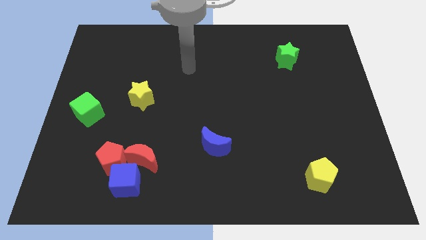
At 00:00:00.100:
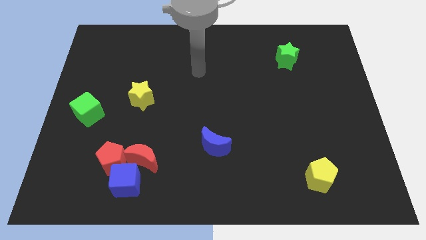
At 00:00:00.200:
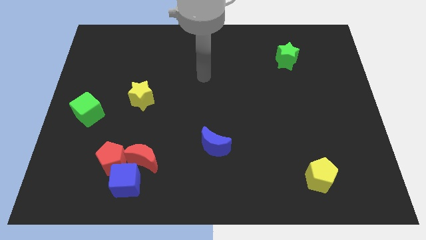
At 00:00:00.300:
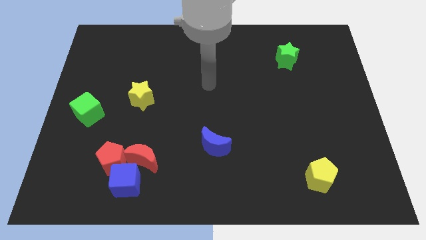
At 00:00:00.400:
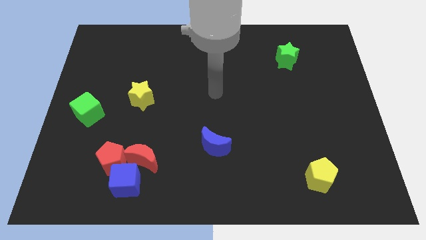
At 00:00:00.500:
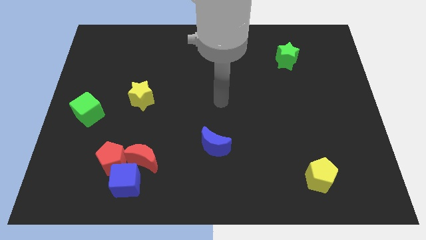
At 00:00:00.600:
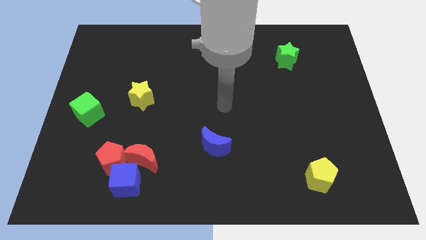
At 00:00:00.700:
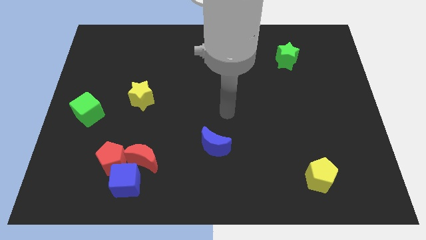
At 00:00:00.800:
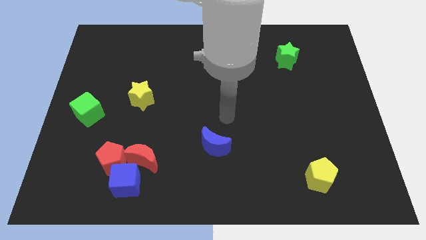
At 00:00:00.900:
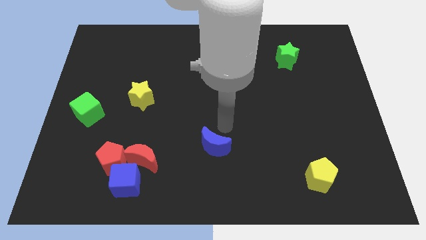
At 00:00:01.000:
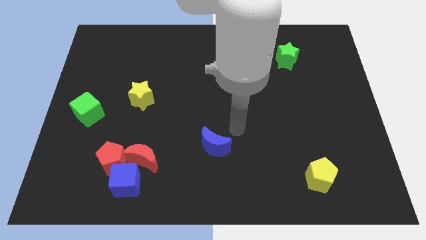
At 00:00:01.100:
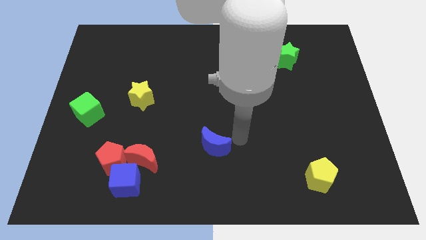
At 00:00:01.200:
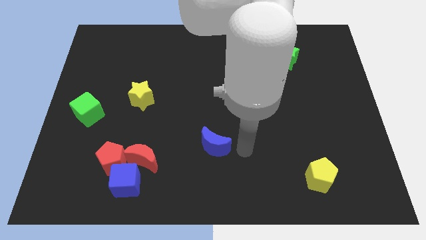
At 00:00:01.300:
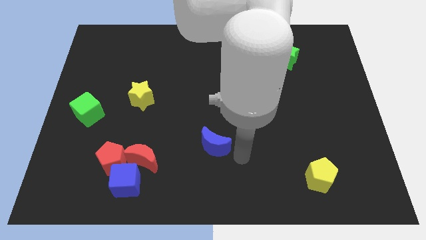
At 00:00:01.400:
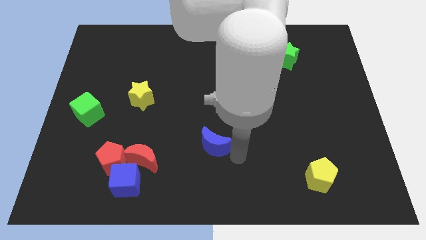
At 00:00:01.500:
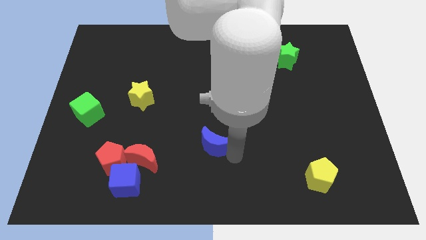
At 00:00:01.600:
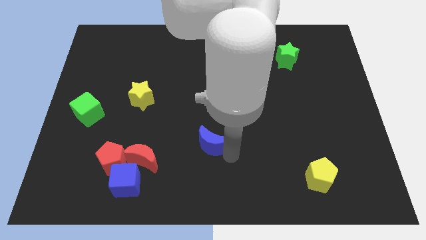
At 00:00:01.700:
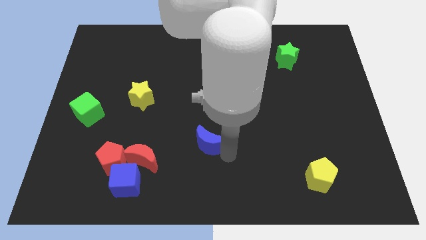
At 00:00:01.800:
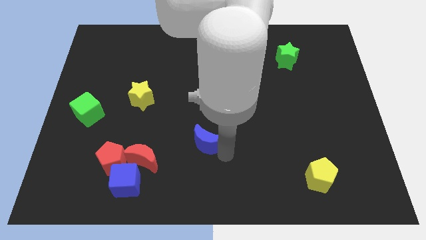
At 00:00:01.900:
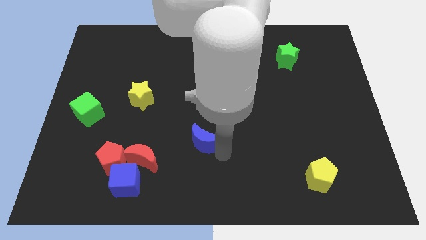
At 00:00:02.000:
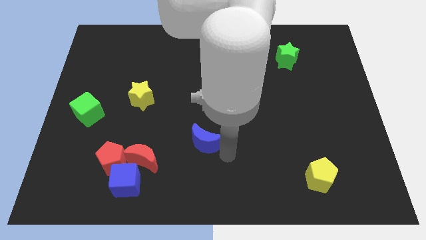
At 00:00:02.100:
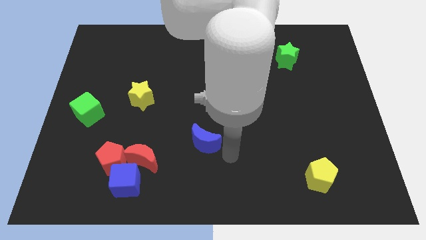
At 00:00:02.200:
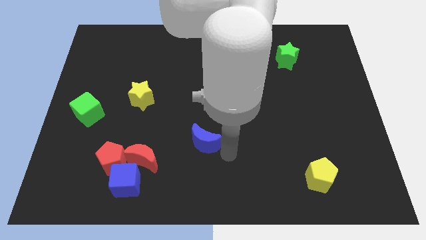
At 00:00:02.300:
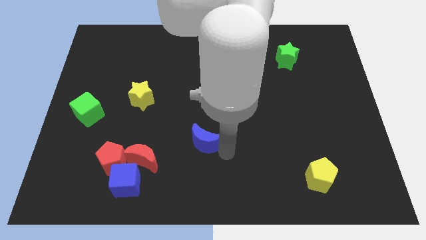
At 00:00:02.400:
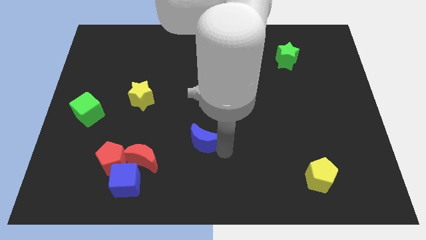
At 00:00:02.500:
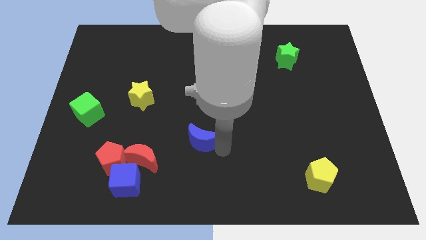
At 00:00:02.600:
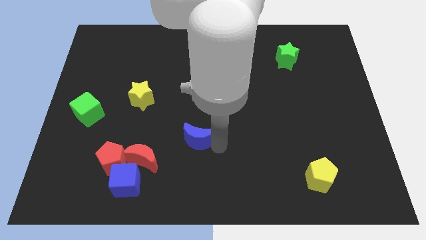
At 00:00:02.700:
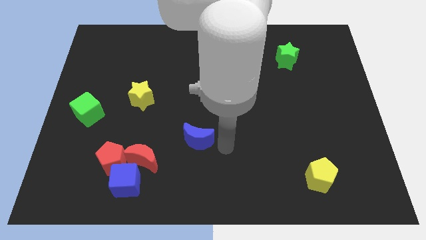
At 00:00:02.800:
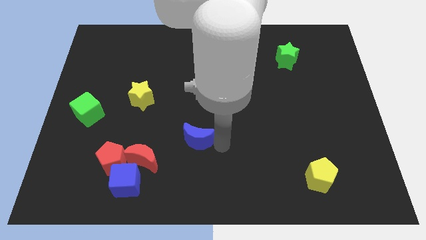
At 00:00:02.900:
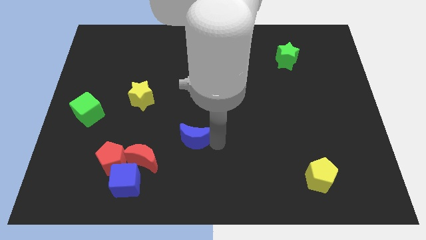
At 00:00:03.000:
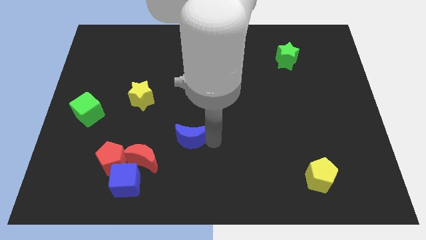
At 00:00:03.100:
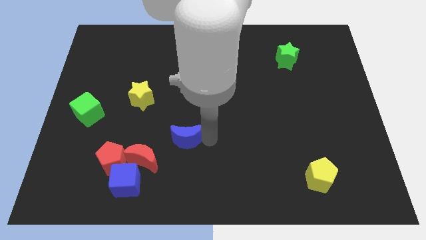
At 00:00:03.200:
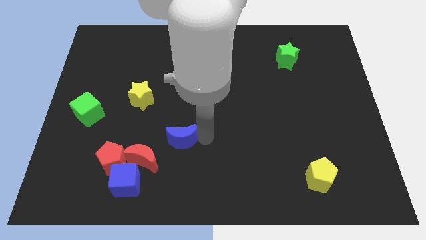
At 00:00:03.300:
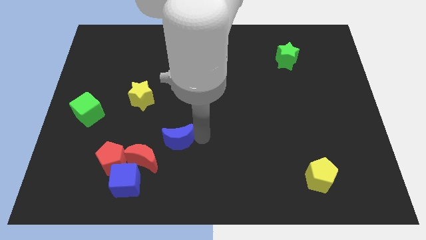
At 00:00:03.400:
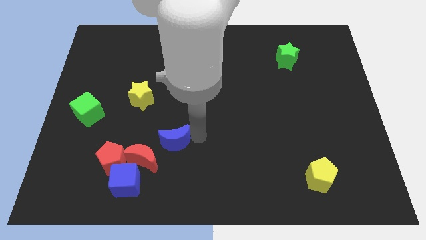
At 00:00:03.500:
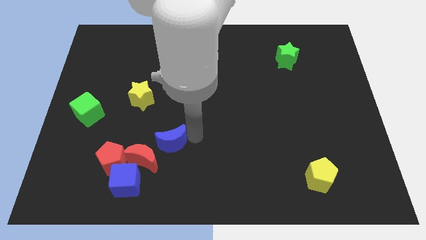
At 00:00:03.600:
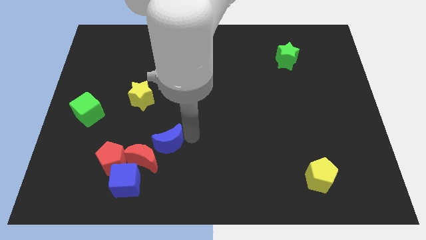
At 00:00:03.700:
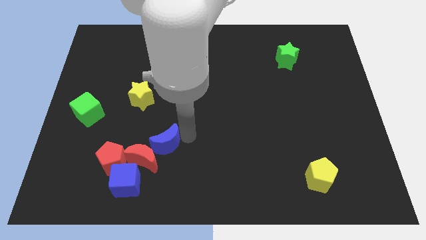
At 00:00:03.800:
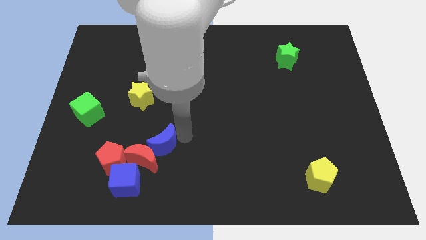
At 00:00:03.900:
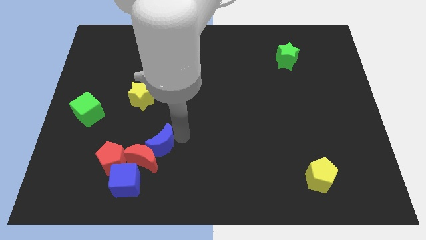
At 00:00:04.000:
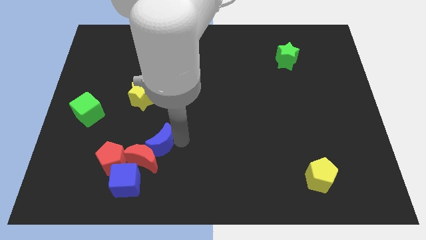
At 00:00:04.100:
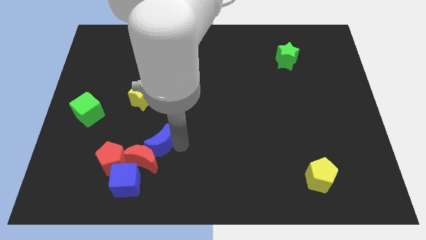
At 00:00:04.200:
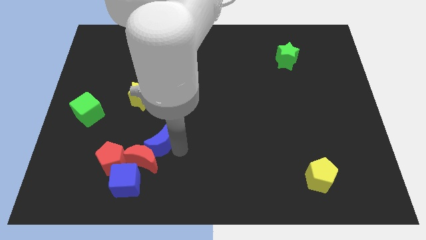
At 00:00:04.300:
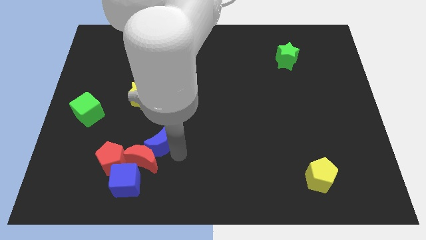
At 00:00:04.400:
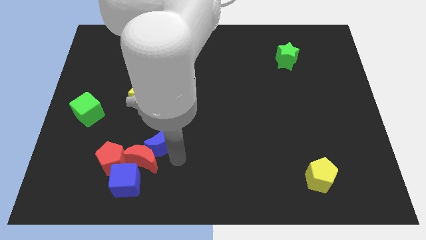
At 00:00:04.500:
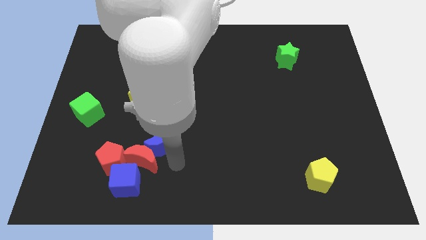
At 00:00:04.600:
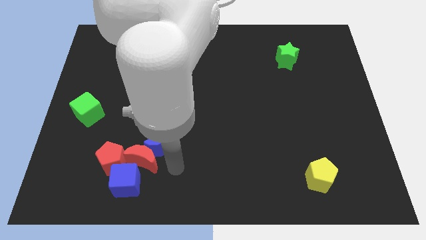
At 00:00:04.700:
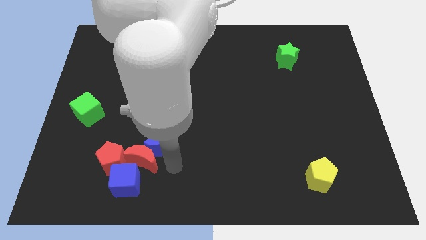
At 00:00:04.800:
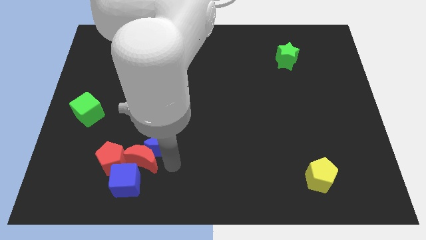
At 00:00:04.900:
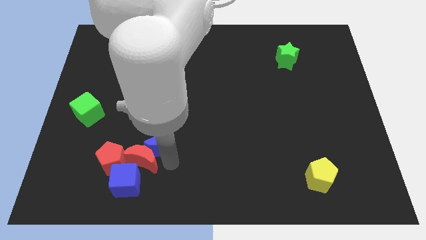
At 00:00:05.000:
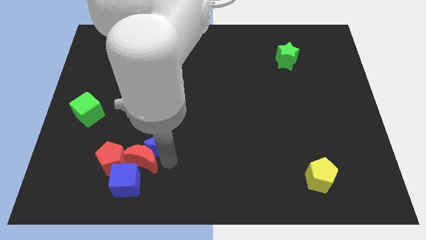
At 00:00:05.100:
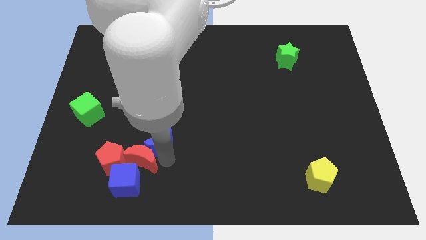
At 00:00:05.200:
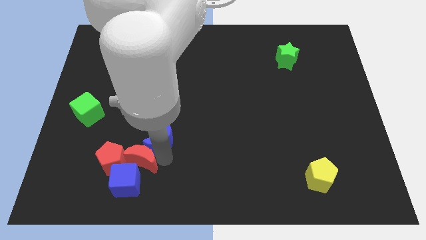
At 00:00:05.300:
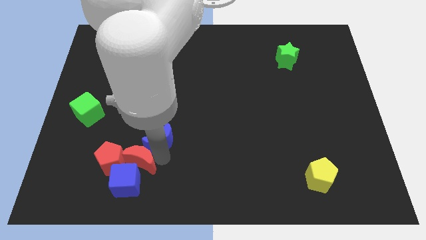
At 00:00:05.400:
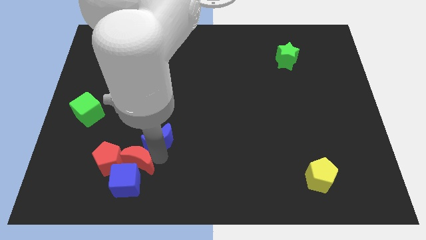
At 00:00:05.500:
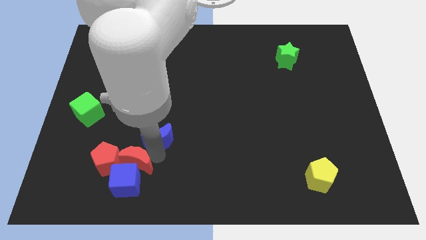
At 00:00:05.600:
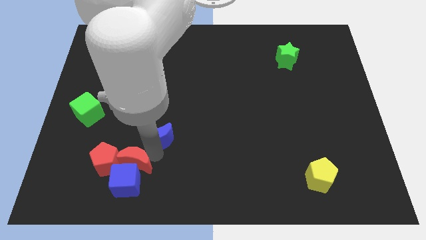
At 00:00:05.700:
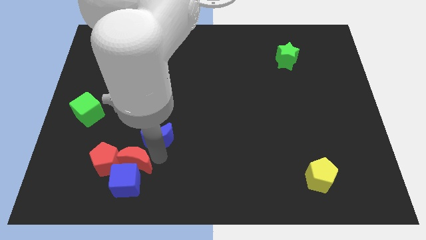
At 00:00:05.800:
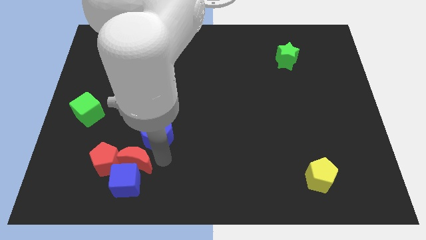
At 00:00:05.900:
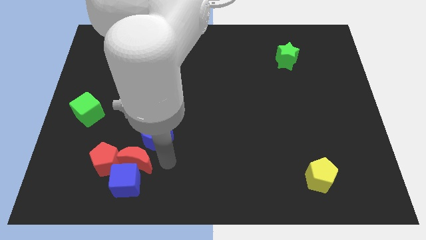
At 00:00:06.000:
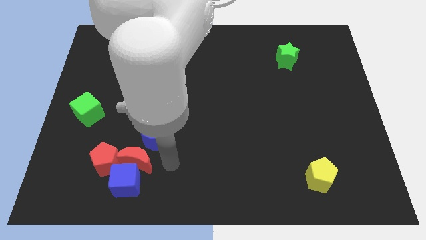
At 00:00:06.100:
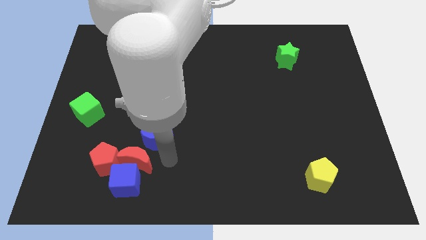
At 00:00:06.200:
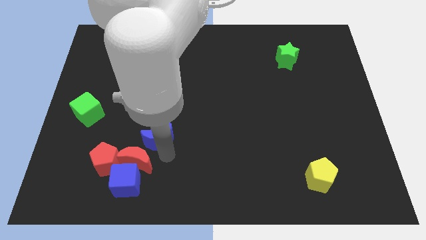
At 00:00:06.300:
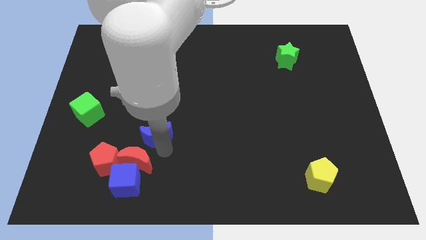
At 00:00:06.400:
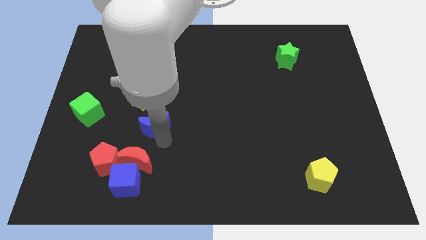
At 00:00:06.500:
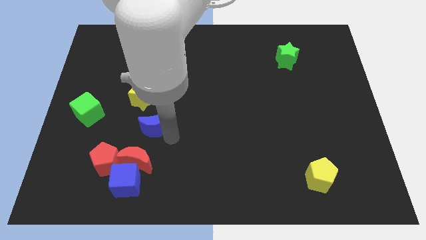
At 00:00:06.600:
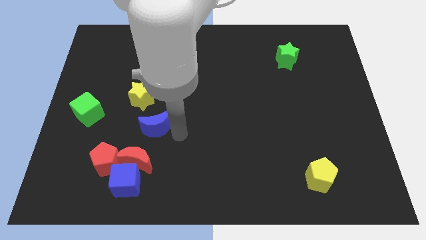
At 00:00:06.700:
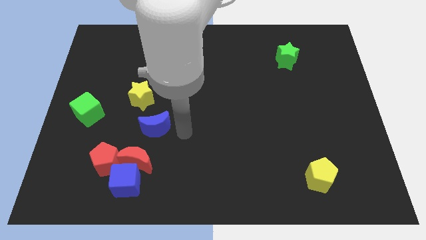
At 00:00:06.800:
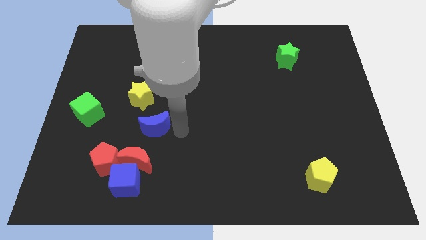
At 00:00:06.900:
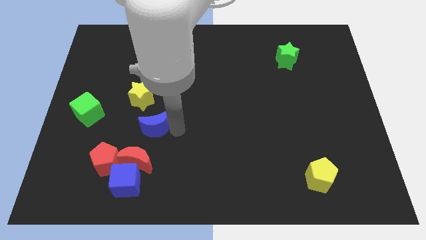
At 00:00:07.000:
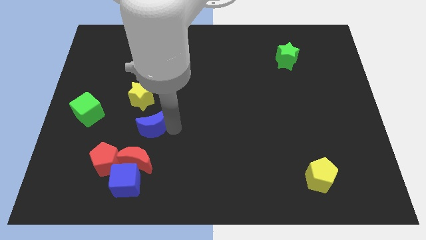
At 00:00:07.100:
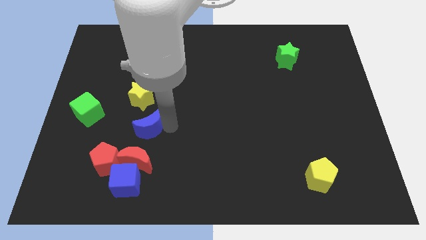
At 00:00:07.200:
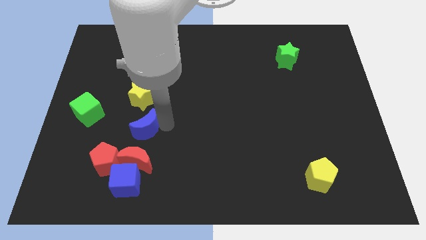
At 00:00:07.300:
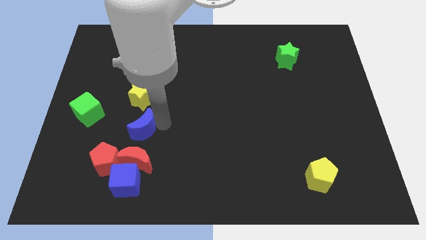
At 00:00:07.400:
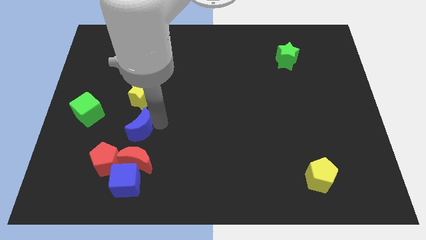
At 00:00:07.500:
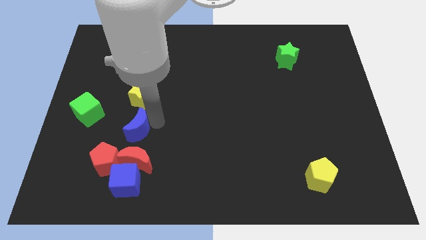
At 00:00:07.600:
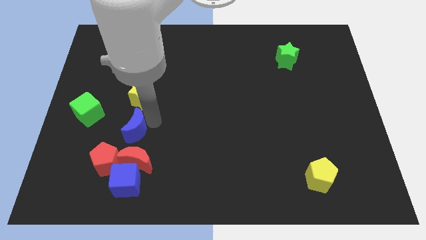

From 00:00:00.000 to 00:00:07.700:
move the blue moon to the top side of the red pentagon
